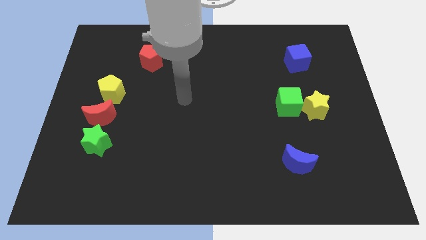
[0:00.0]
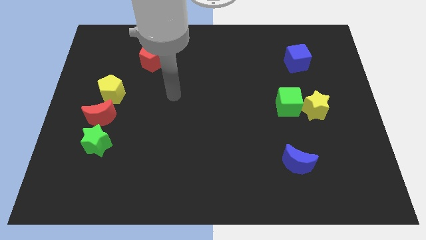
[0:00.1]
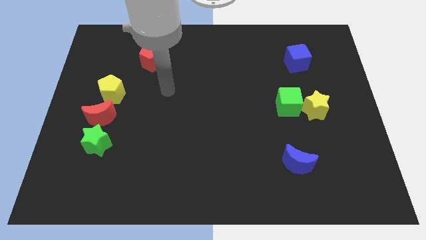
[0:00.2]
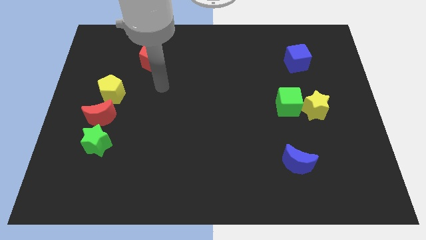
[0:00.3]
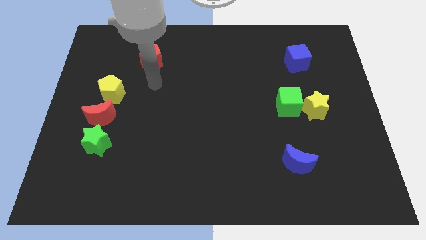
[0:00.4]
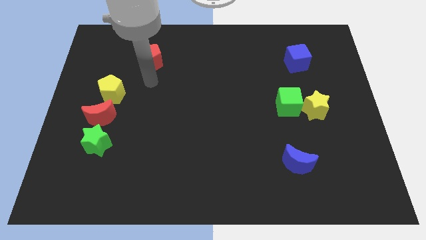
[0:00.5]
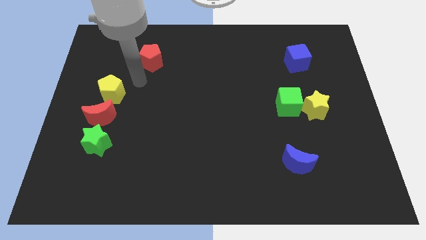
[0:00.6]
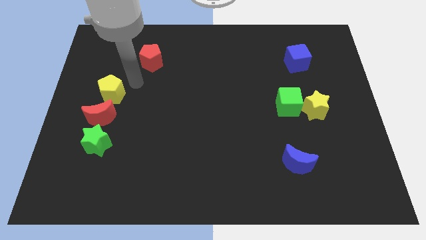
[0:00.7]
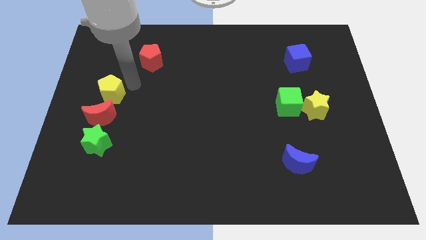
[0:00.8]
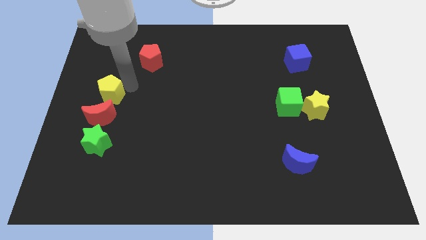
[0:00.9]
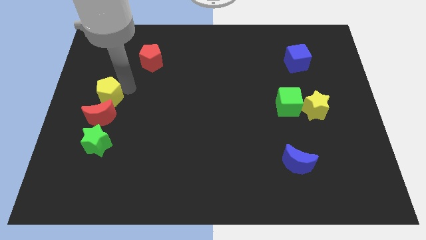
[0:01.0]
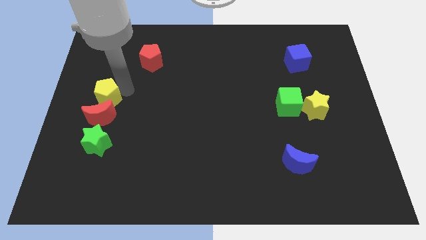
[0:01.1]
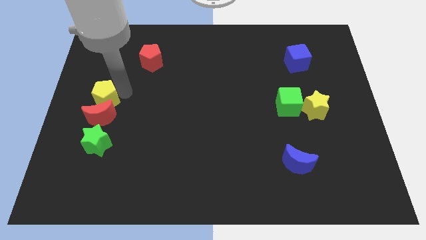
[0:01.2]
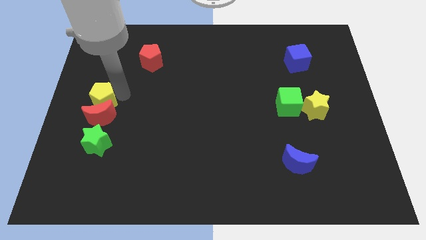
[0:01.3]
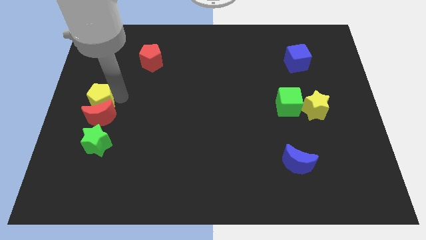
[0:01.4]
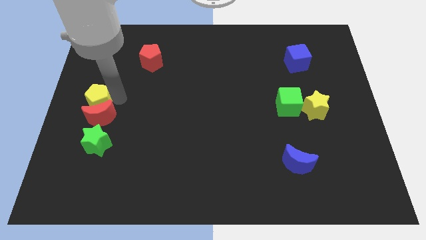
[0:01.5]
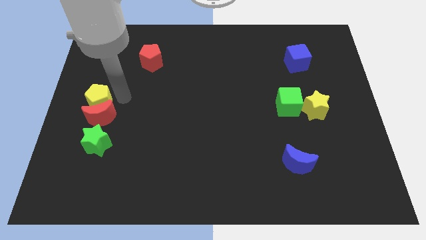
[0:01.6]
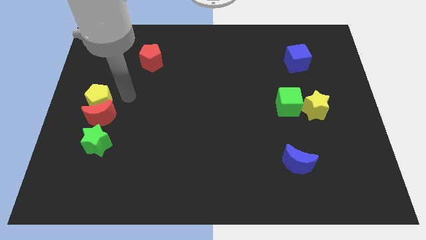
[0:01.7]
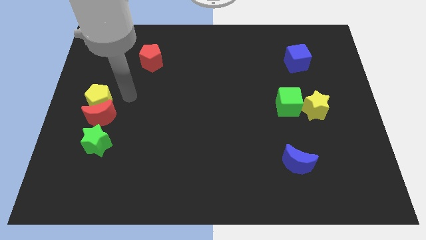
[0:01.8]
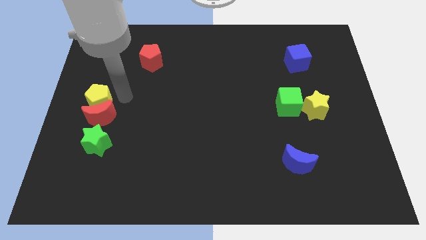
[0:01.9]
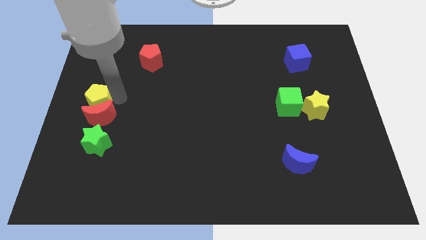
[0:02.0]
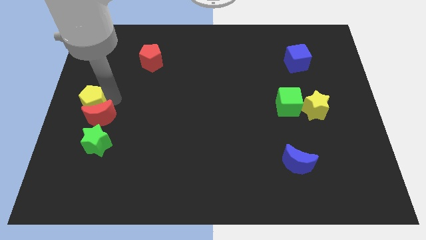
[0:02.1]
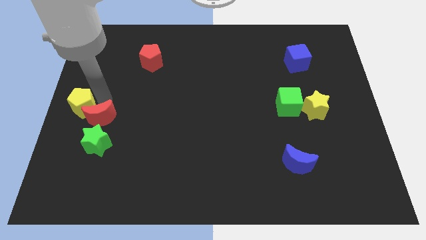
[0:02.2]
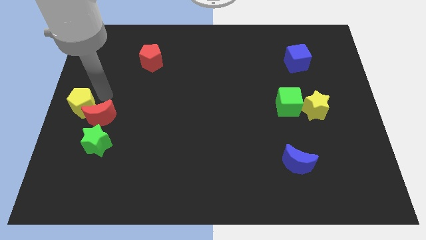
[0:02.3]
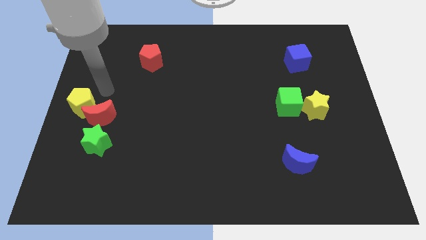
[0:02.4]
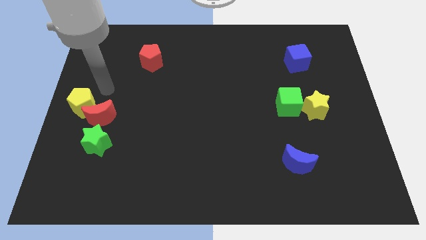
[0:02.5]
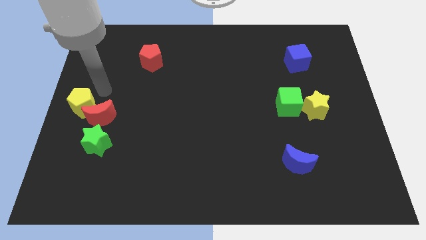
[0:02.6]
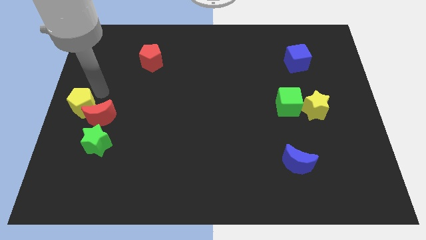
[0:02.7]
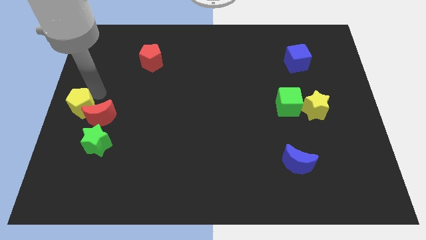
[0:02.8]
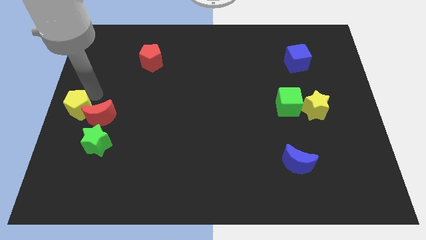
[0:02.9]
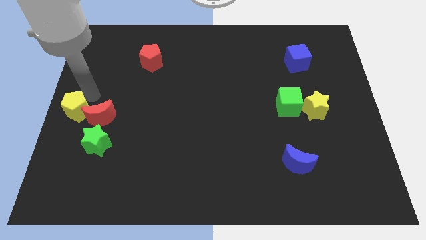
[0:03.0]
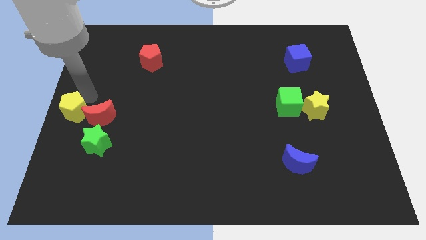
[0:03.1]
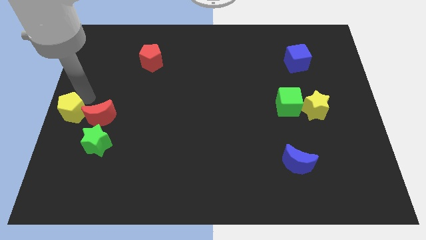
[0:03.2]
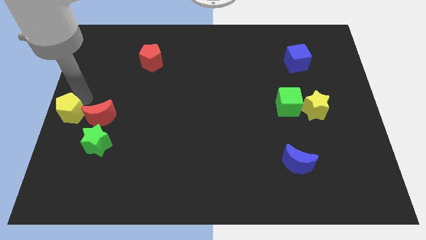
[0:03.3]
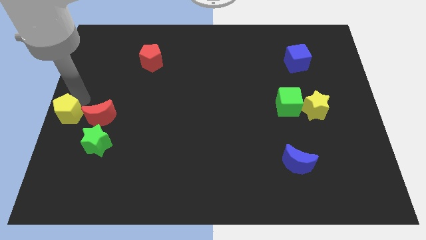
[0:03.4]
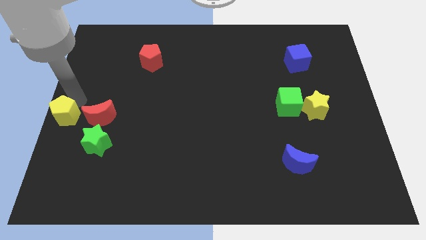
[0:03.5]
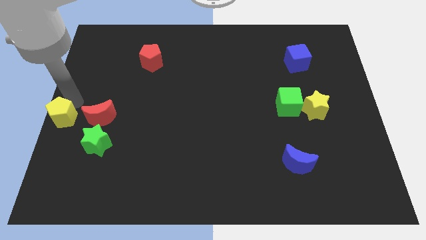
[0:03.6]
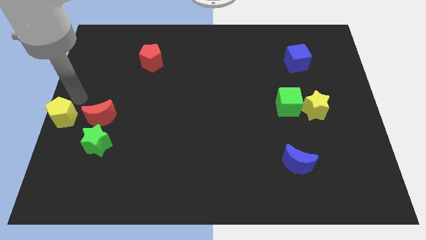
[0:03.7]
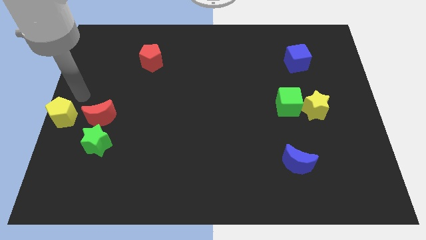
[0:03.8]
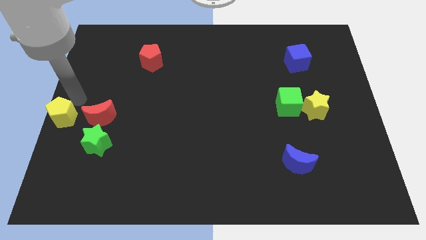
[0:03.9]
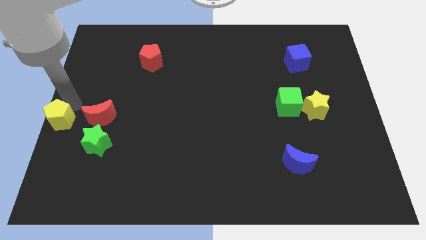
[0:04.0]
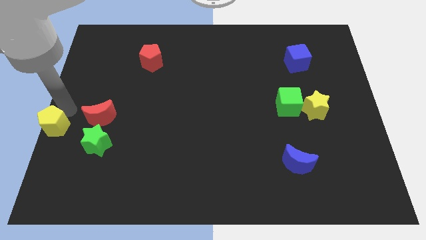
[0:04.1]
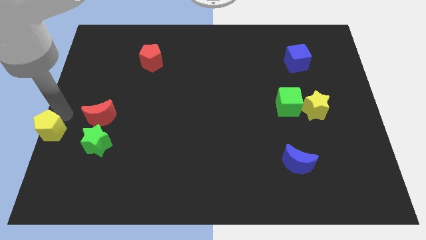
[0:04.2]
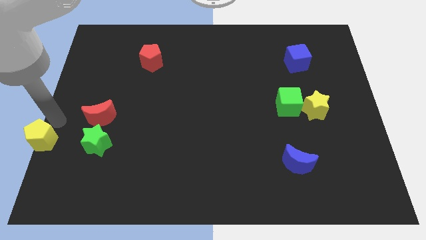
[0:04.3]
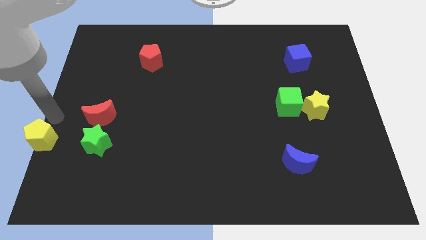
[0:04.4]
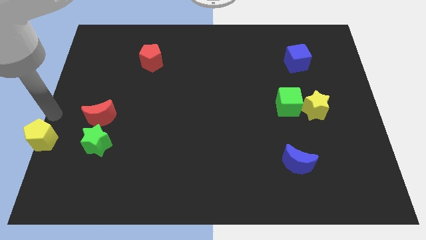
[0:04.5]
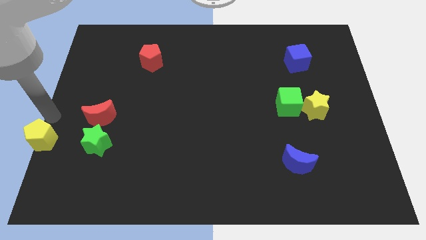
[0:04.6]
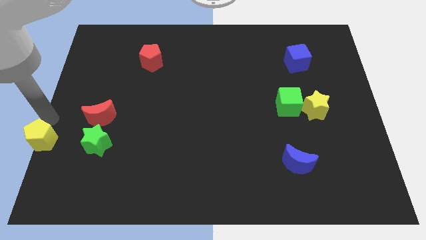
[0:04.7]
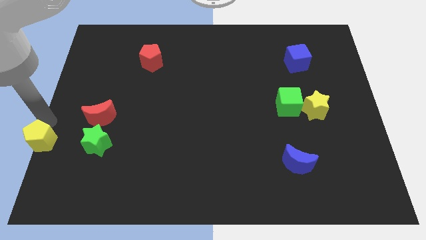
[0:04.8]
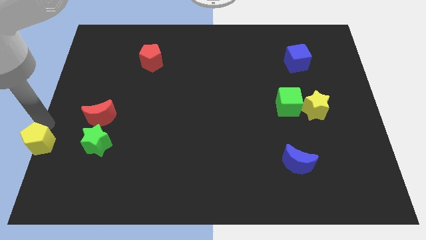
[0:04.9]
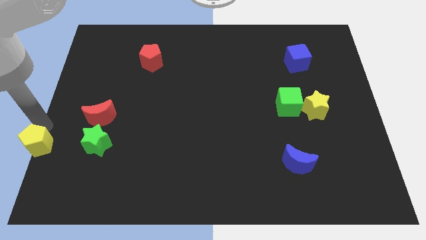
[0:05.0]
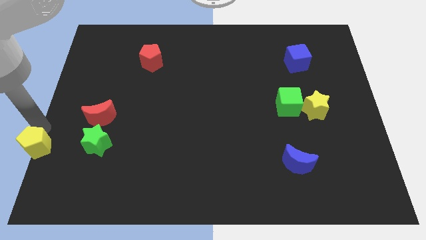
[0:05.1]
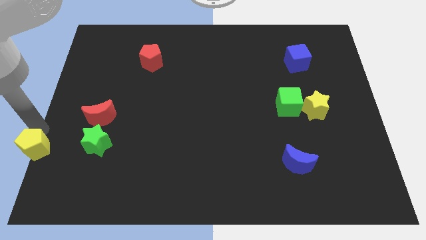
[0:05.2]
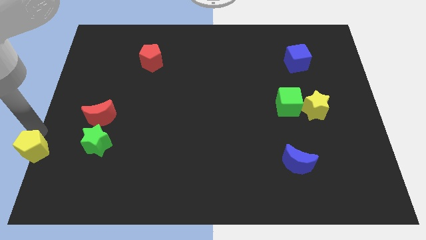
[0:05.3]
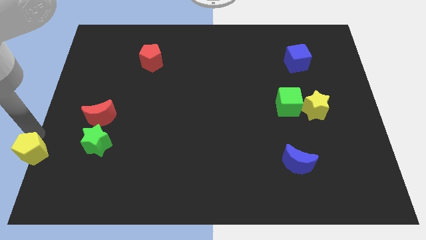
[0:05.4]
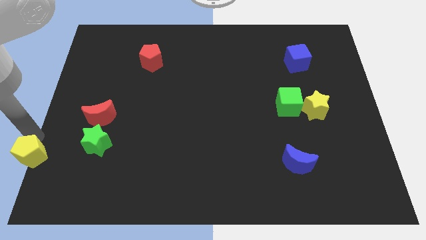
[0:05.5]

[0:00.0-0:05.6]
push the yellow pentagon to the bottom left of the board

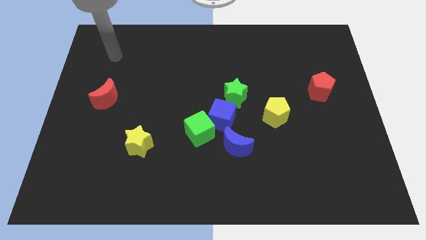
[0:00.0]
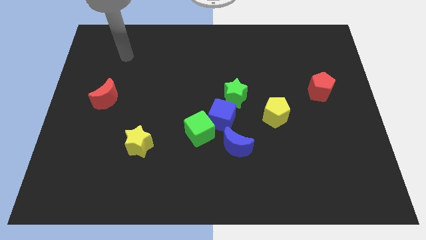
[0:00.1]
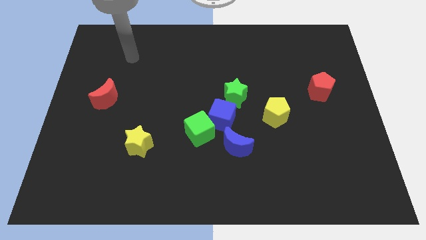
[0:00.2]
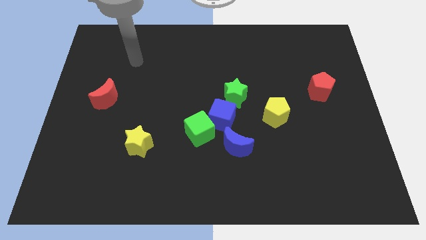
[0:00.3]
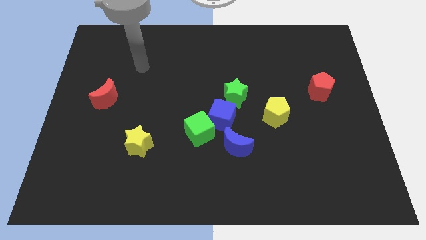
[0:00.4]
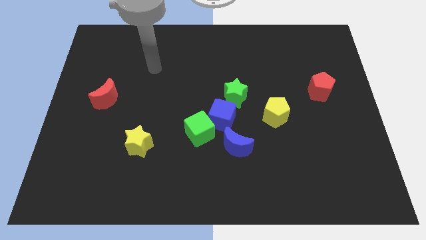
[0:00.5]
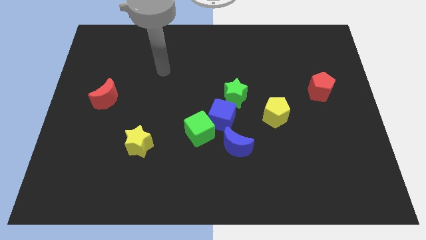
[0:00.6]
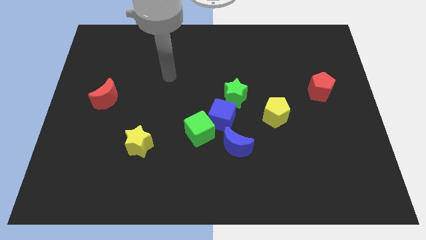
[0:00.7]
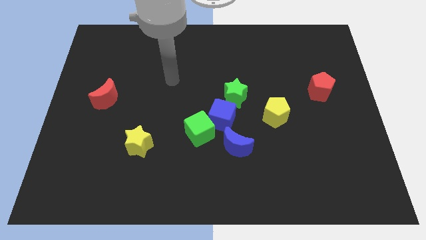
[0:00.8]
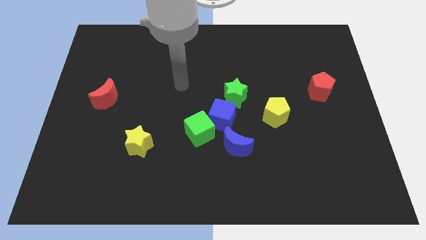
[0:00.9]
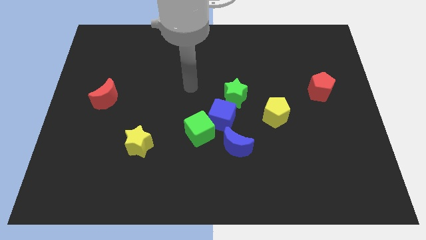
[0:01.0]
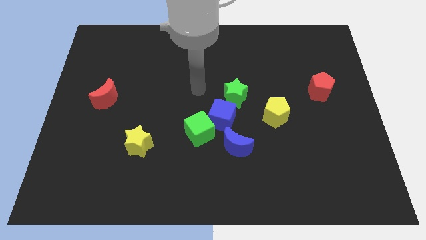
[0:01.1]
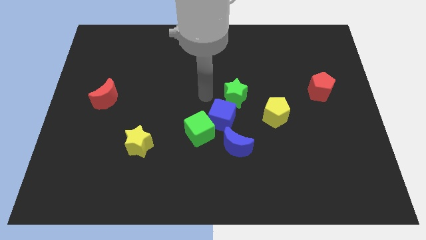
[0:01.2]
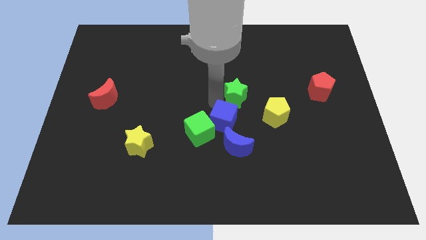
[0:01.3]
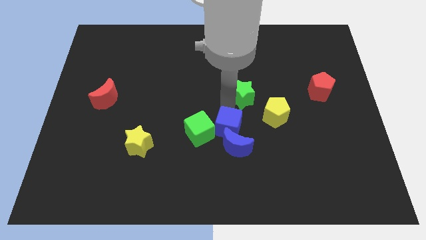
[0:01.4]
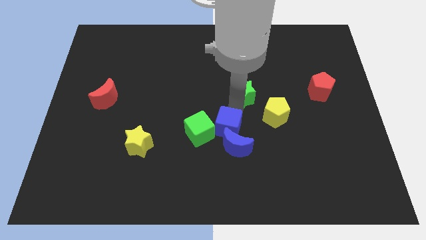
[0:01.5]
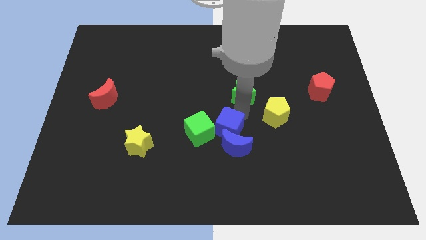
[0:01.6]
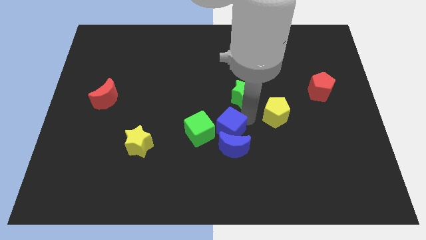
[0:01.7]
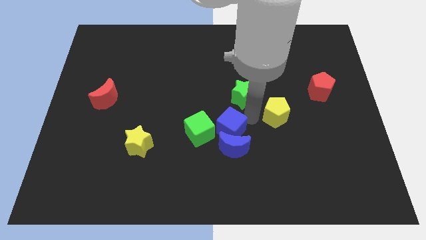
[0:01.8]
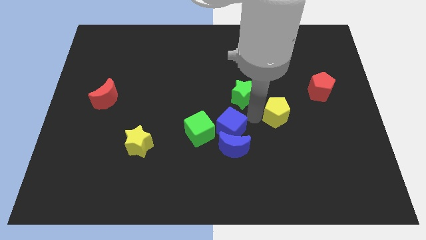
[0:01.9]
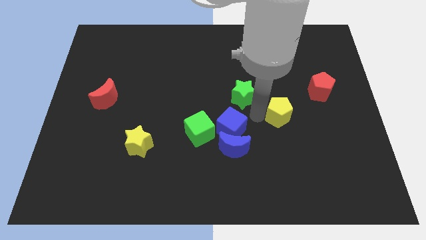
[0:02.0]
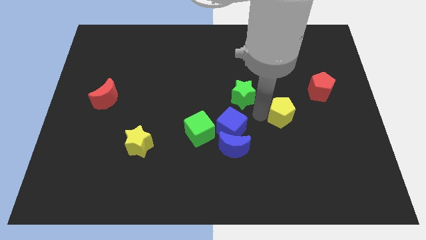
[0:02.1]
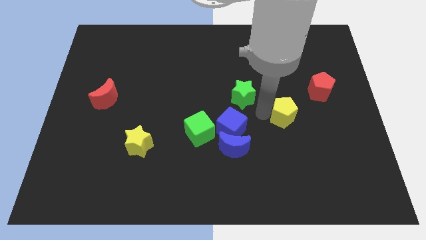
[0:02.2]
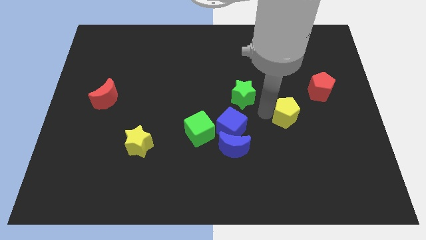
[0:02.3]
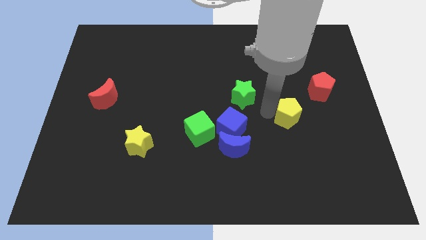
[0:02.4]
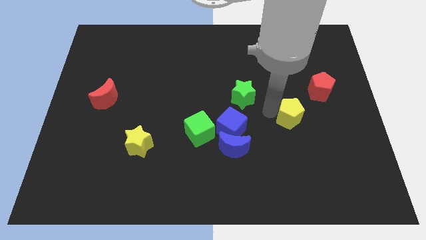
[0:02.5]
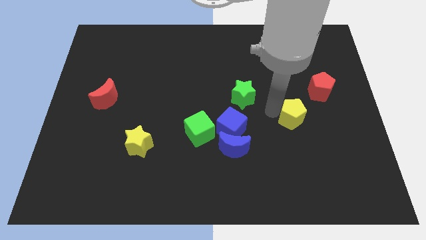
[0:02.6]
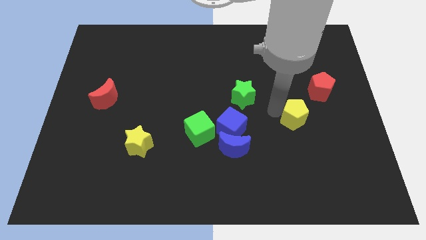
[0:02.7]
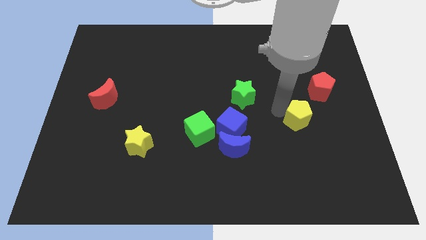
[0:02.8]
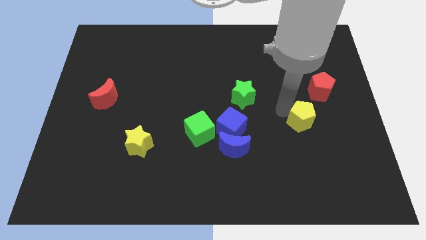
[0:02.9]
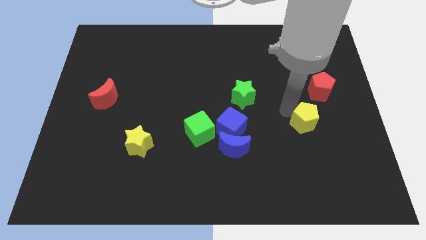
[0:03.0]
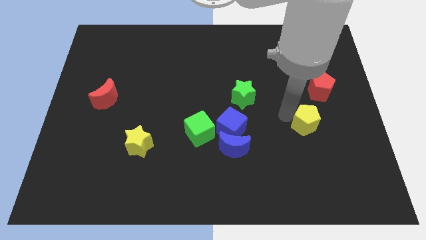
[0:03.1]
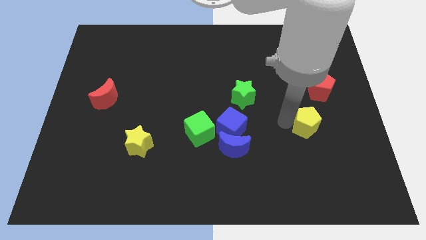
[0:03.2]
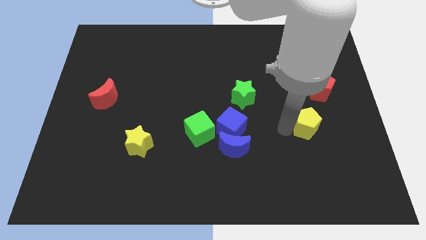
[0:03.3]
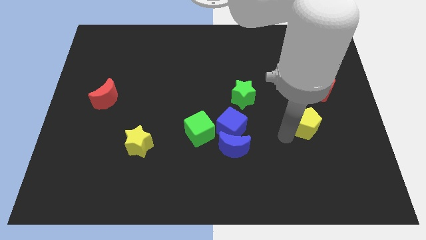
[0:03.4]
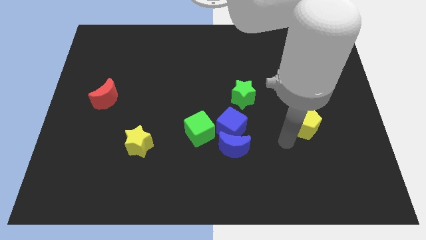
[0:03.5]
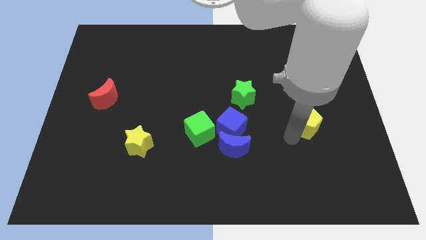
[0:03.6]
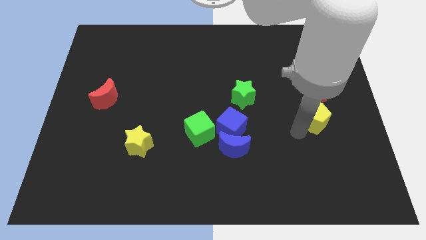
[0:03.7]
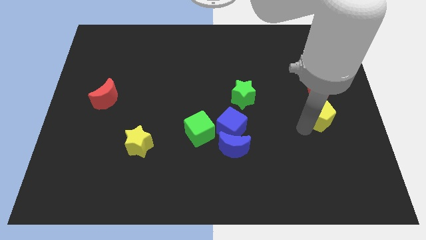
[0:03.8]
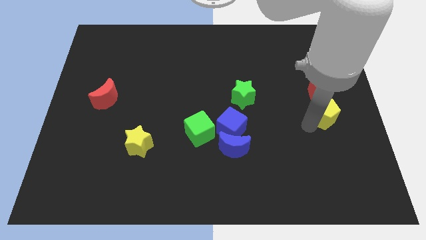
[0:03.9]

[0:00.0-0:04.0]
slide the yellow pentagon to the center right
